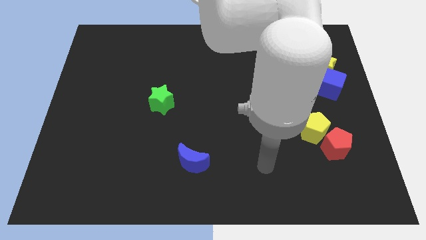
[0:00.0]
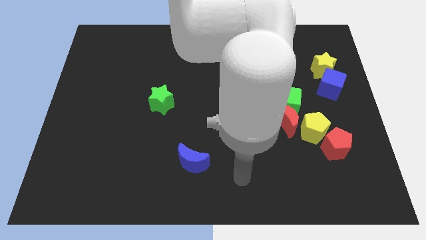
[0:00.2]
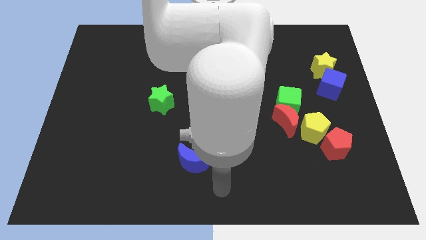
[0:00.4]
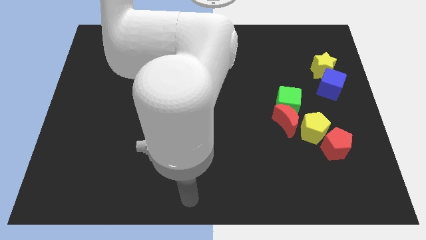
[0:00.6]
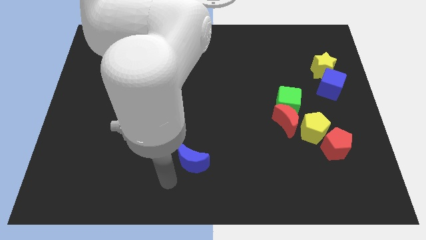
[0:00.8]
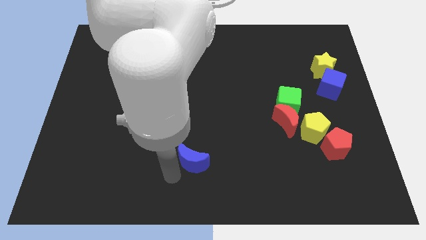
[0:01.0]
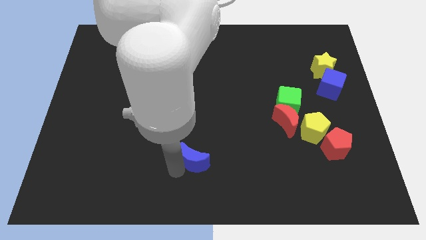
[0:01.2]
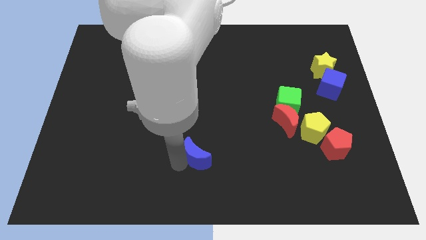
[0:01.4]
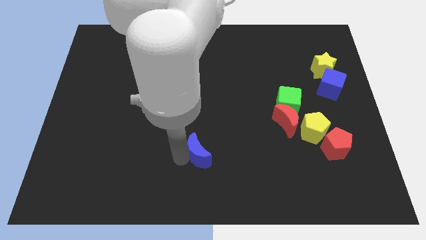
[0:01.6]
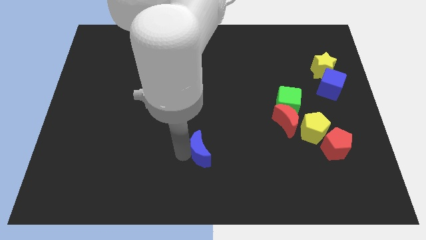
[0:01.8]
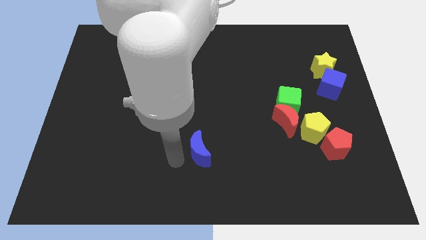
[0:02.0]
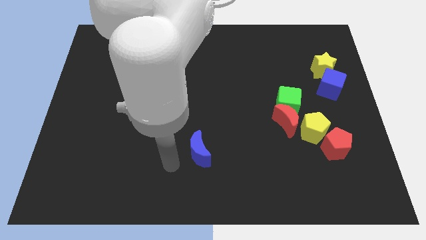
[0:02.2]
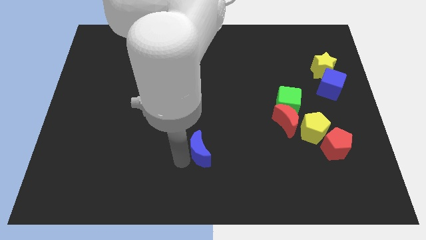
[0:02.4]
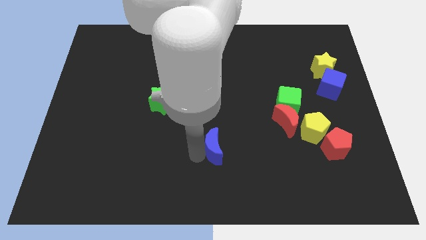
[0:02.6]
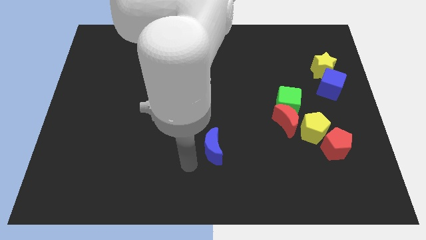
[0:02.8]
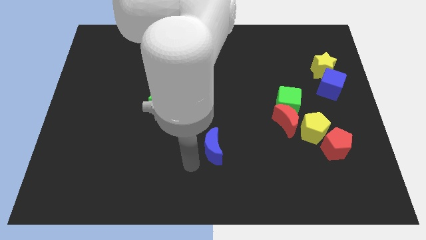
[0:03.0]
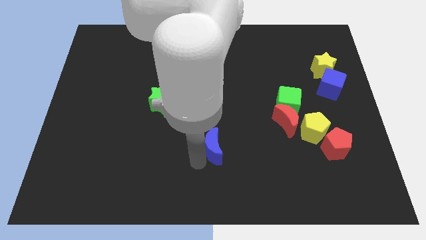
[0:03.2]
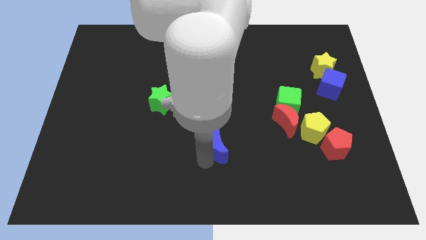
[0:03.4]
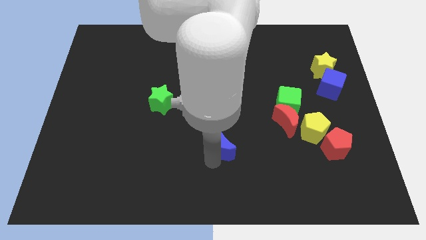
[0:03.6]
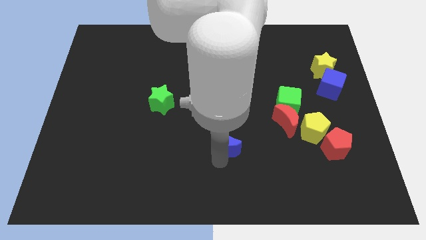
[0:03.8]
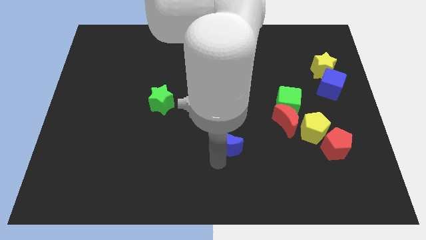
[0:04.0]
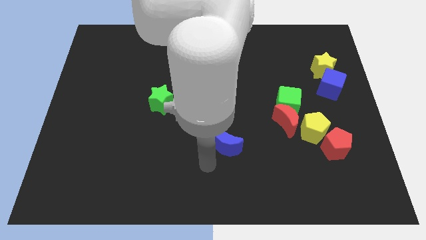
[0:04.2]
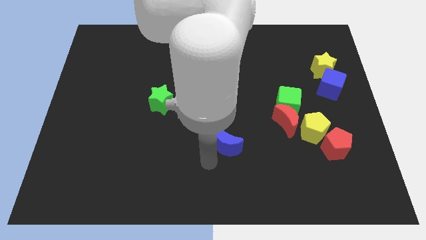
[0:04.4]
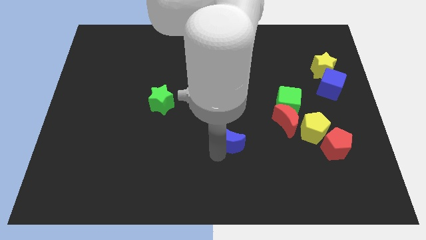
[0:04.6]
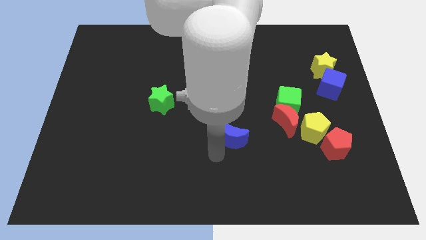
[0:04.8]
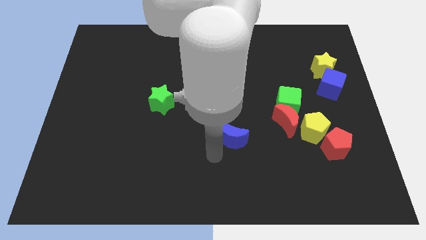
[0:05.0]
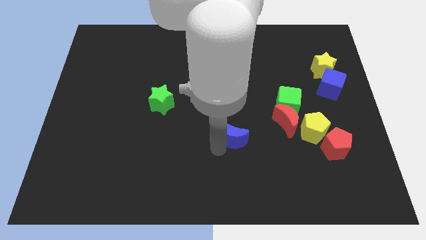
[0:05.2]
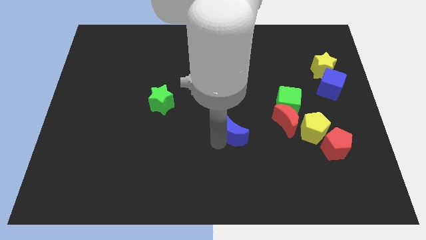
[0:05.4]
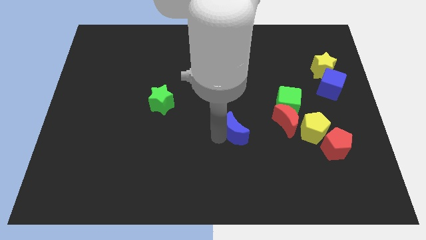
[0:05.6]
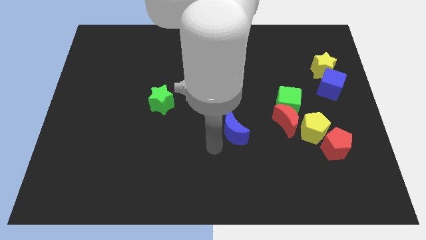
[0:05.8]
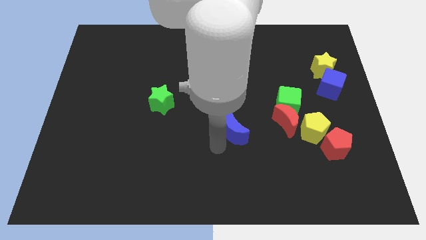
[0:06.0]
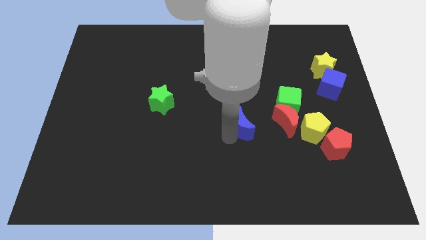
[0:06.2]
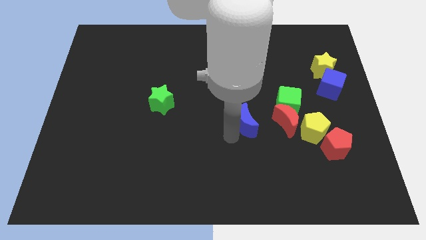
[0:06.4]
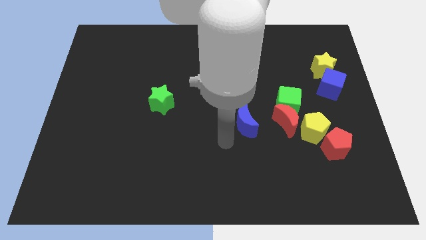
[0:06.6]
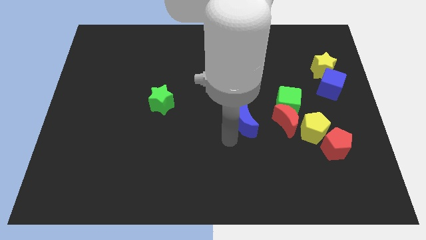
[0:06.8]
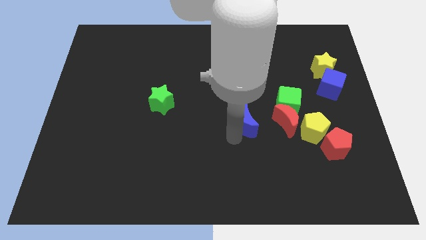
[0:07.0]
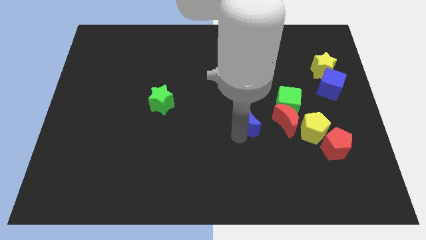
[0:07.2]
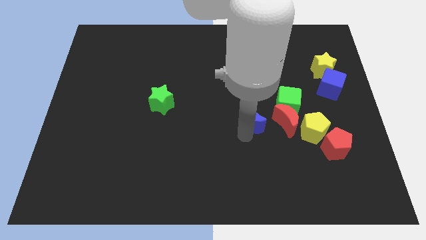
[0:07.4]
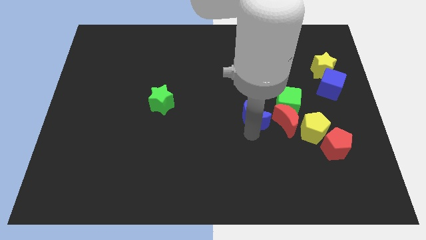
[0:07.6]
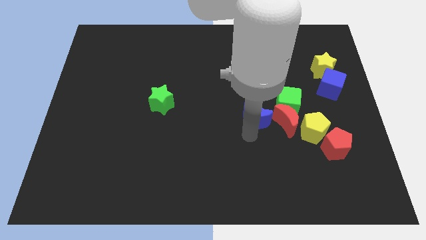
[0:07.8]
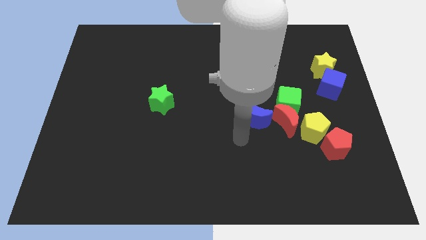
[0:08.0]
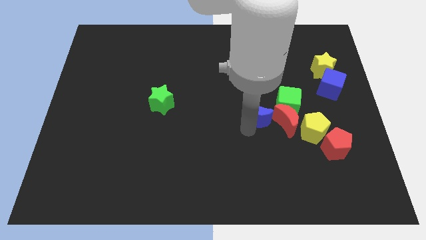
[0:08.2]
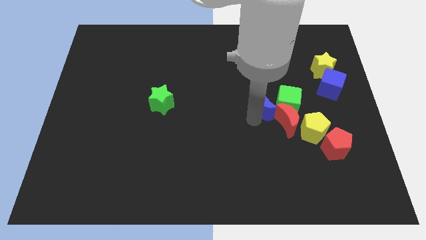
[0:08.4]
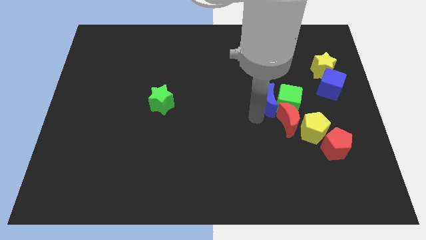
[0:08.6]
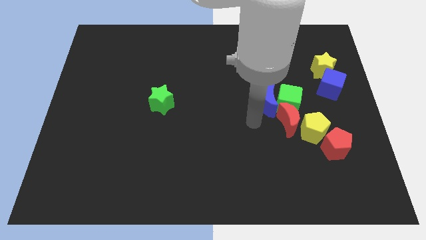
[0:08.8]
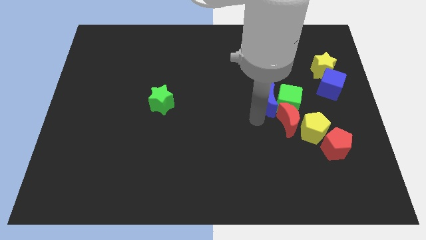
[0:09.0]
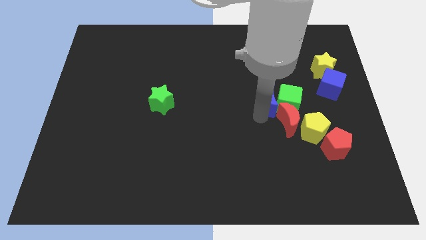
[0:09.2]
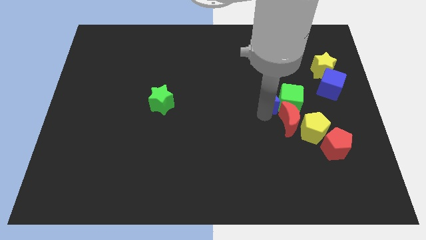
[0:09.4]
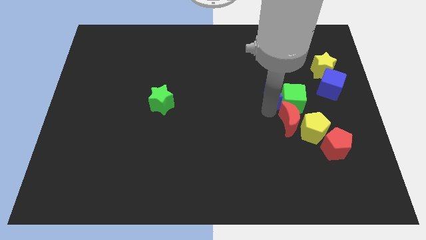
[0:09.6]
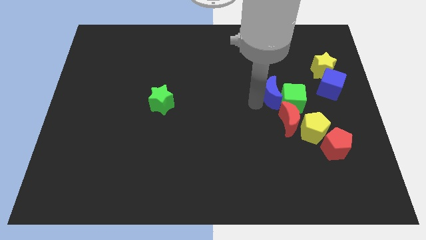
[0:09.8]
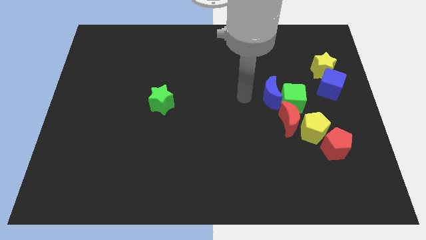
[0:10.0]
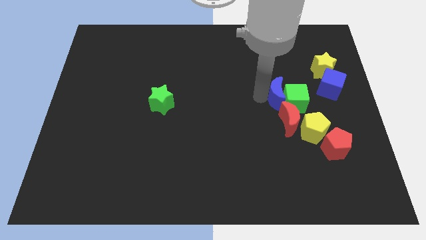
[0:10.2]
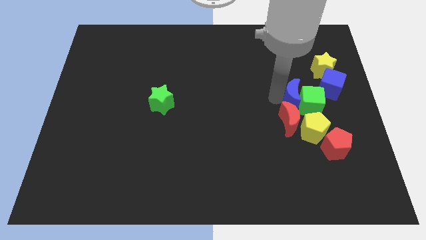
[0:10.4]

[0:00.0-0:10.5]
put the blue moon above the yellow pentagon

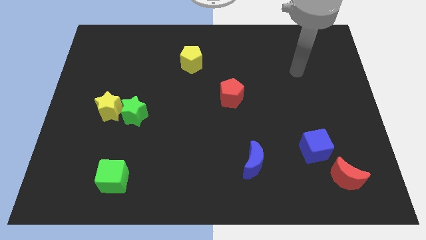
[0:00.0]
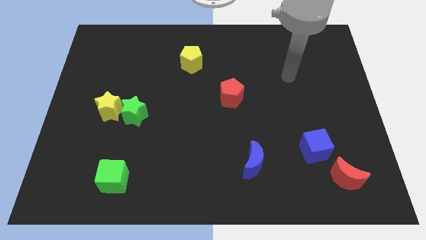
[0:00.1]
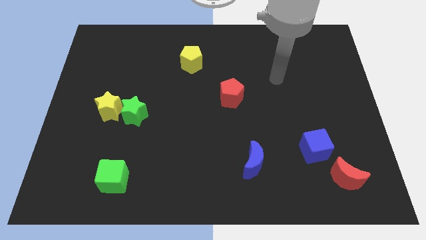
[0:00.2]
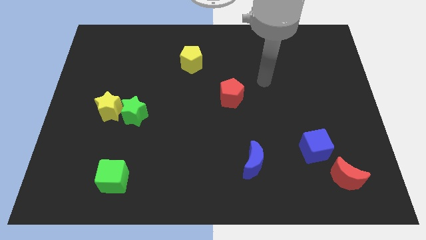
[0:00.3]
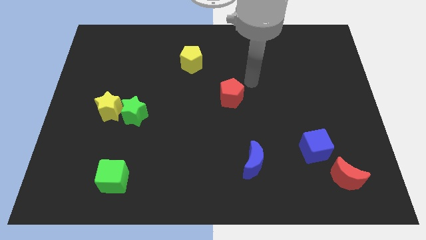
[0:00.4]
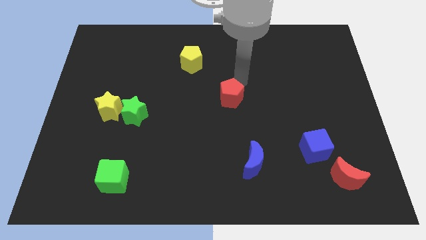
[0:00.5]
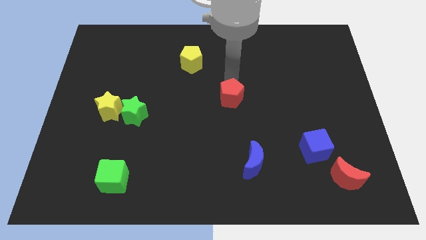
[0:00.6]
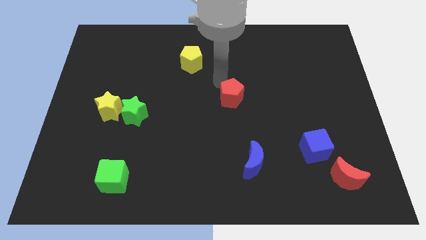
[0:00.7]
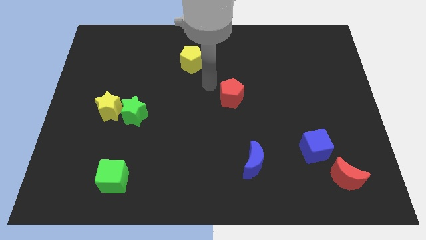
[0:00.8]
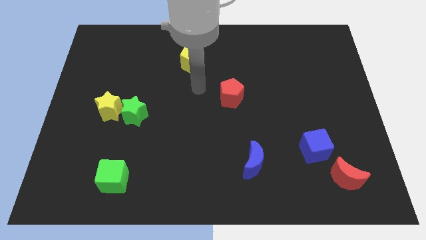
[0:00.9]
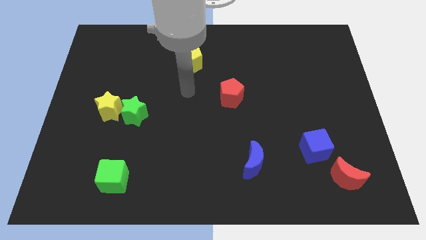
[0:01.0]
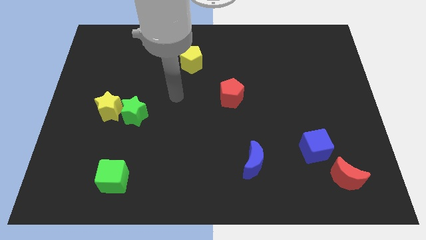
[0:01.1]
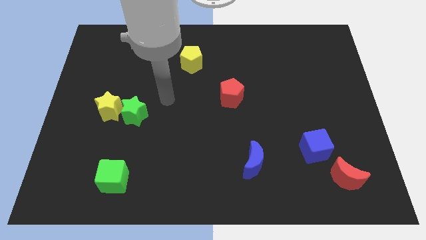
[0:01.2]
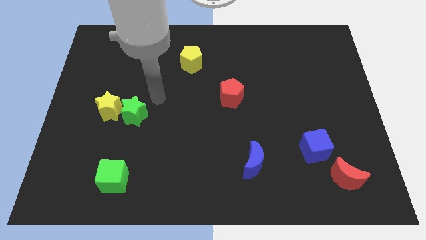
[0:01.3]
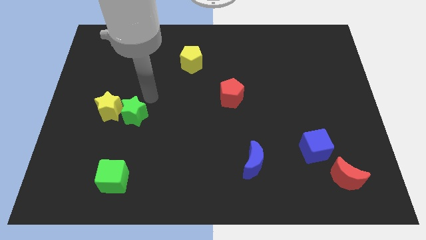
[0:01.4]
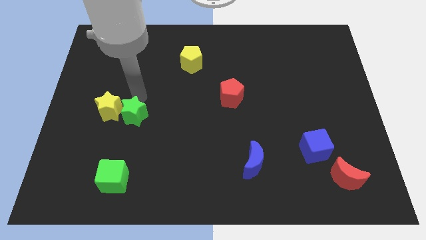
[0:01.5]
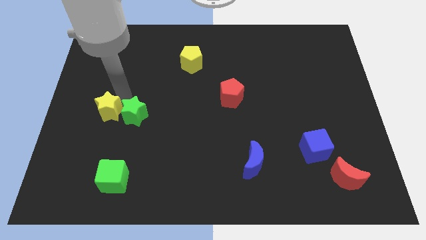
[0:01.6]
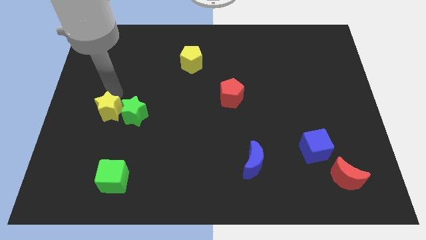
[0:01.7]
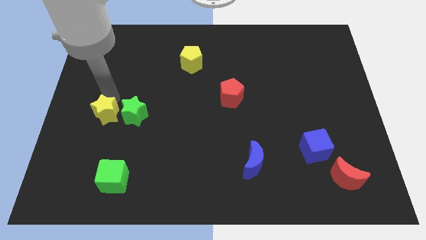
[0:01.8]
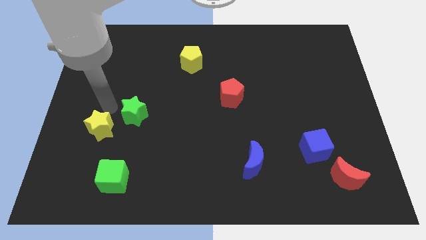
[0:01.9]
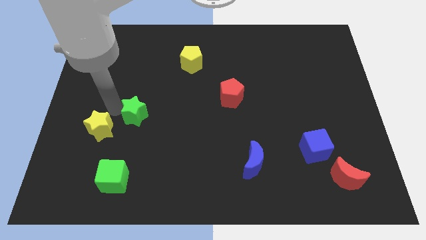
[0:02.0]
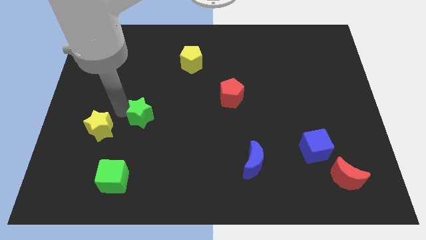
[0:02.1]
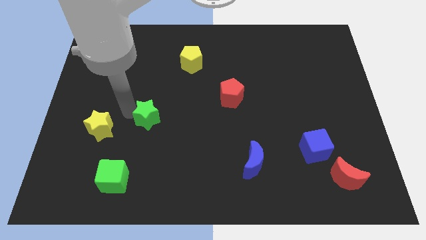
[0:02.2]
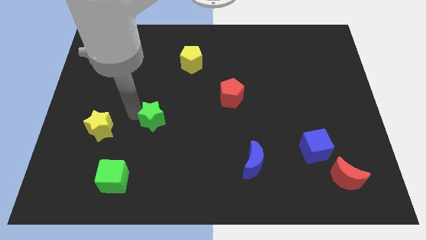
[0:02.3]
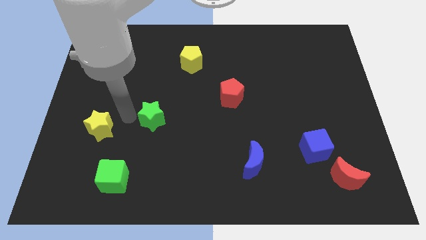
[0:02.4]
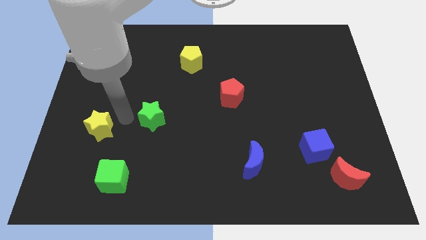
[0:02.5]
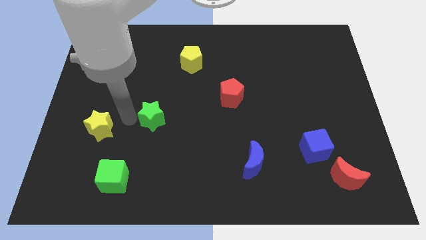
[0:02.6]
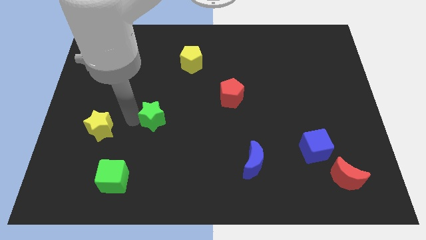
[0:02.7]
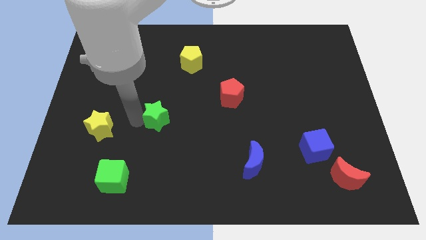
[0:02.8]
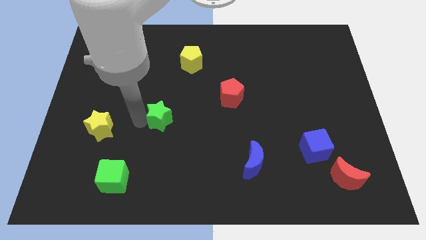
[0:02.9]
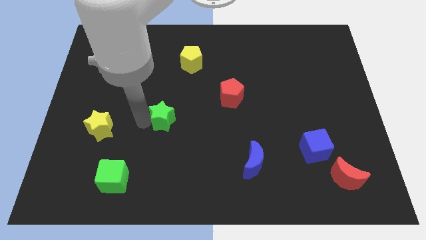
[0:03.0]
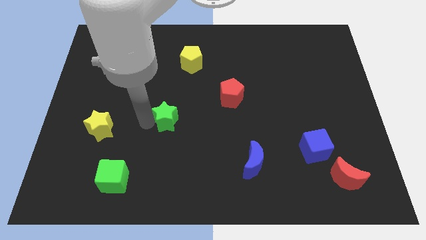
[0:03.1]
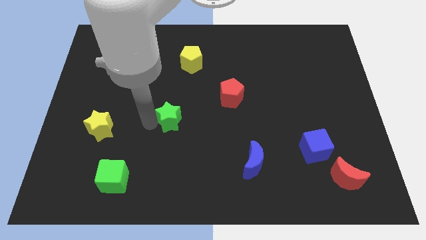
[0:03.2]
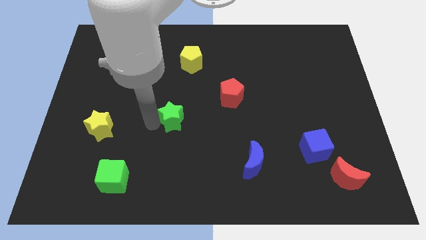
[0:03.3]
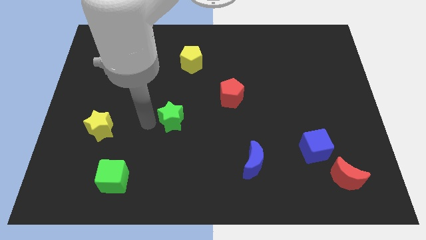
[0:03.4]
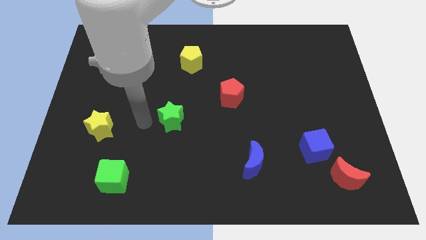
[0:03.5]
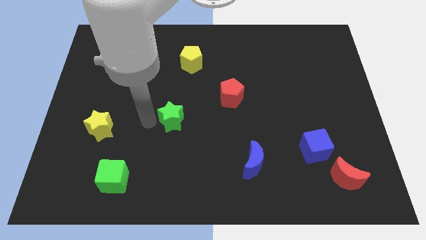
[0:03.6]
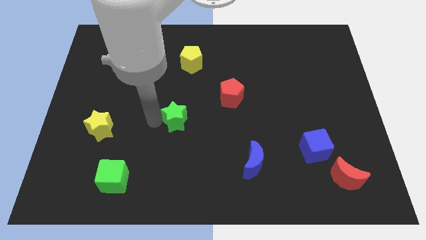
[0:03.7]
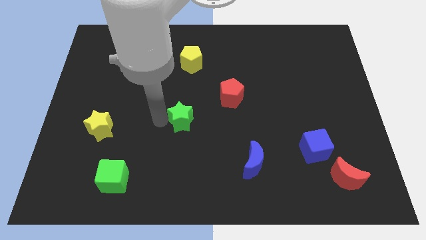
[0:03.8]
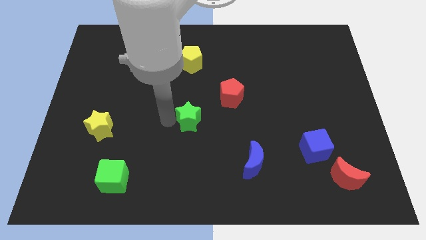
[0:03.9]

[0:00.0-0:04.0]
put the green star to the bottom left of the red pentagon
